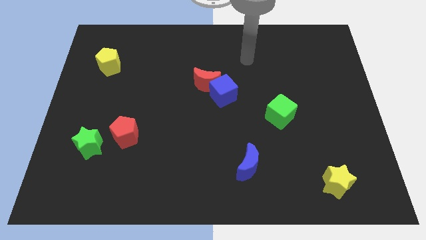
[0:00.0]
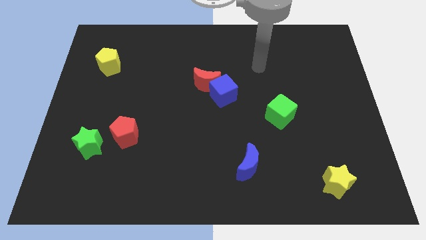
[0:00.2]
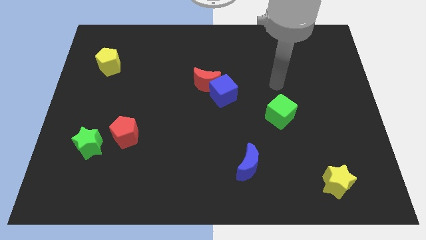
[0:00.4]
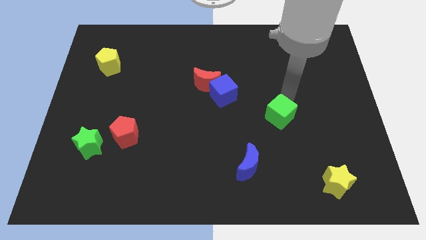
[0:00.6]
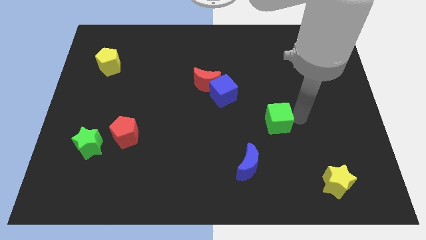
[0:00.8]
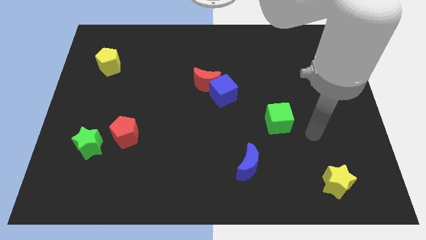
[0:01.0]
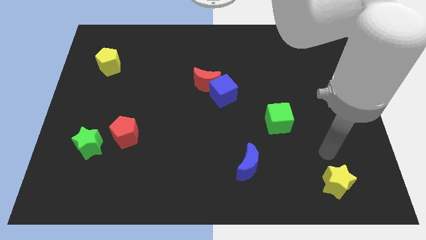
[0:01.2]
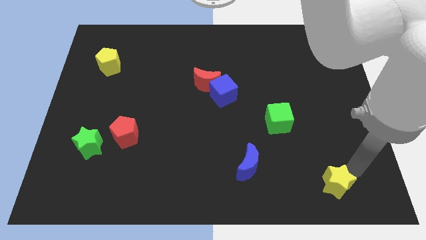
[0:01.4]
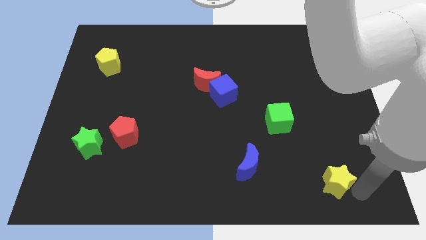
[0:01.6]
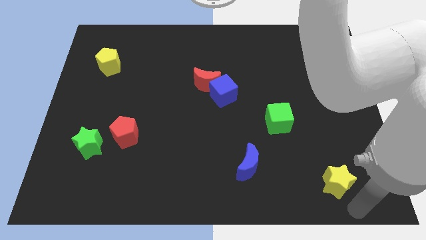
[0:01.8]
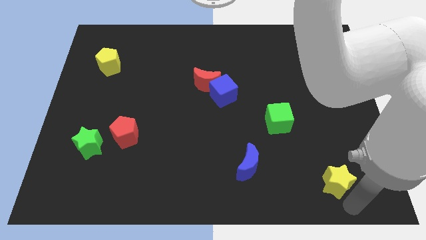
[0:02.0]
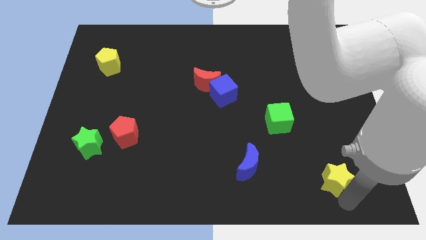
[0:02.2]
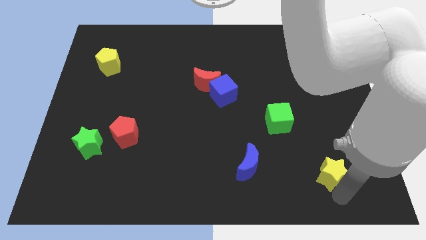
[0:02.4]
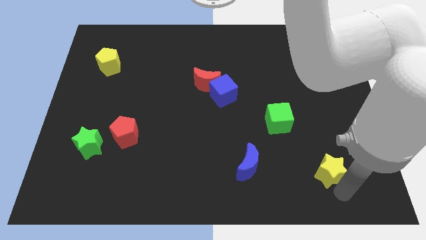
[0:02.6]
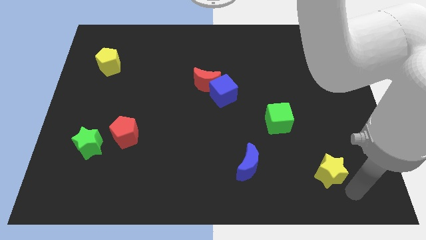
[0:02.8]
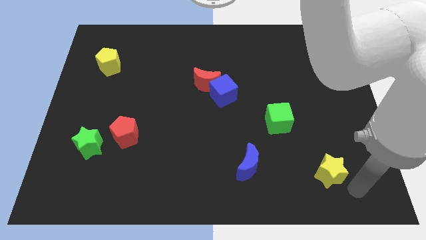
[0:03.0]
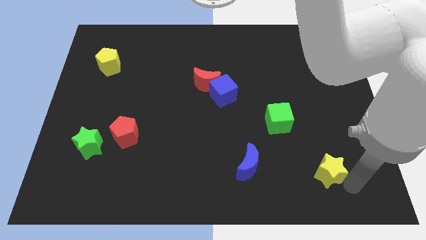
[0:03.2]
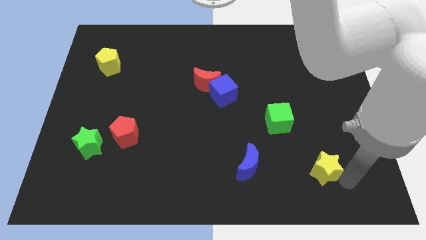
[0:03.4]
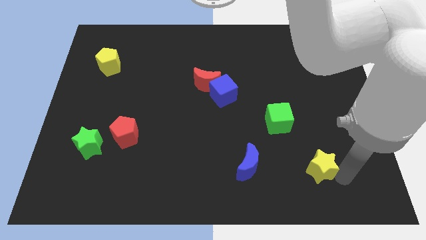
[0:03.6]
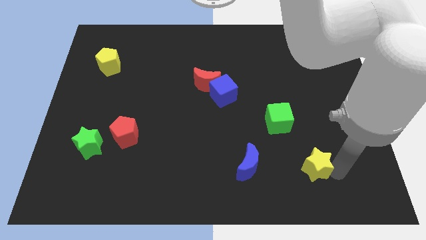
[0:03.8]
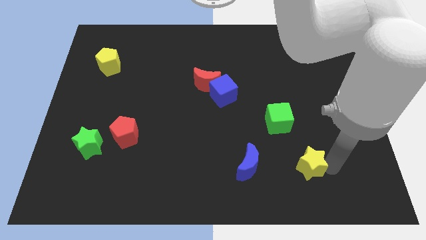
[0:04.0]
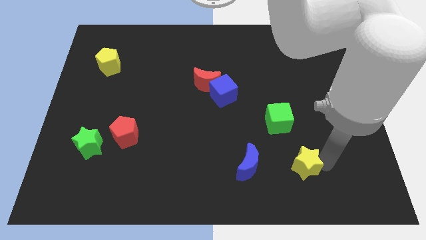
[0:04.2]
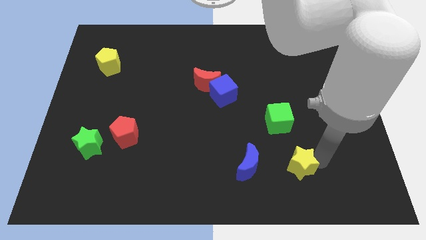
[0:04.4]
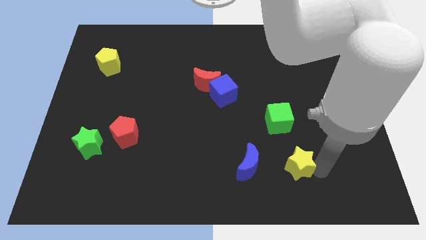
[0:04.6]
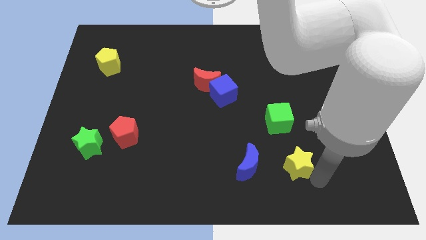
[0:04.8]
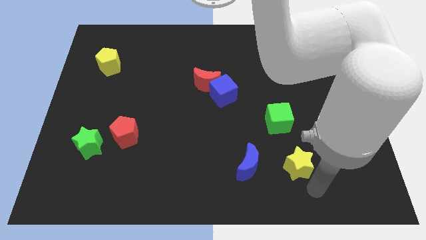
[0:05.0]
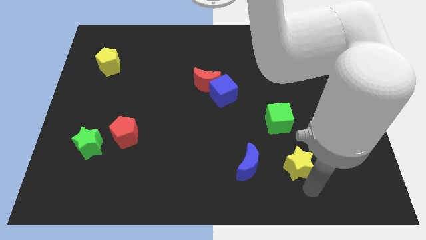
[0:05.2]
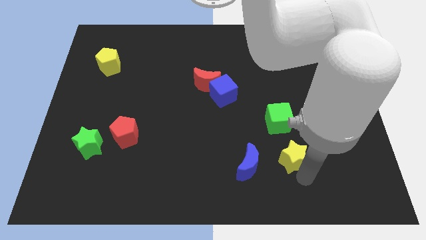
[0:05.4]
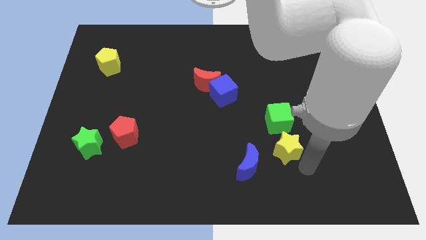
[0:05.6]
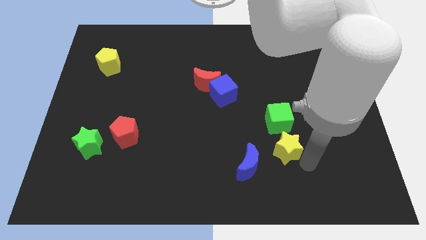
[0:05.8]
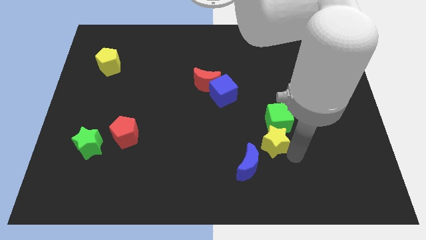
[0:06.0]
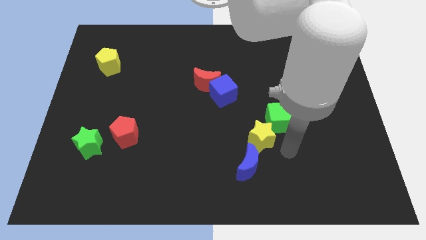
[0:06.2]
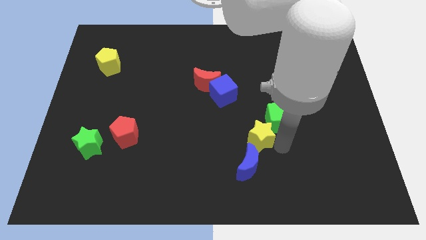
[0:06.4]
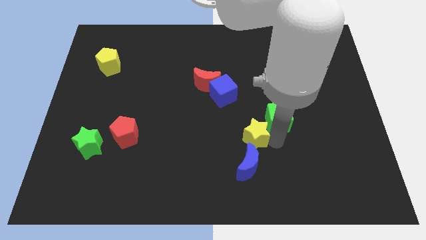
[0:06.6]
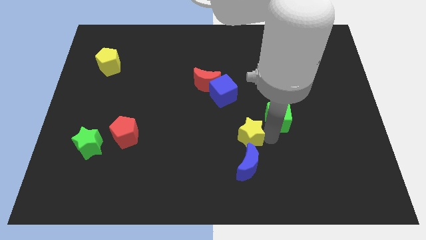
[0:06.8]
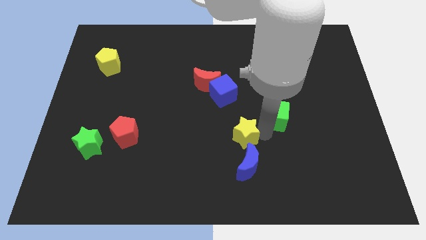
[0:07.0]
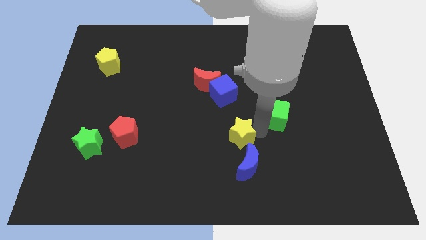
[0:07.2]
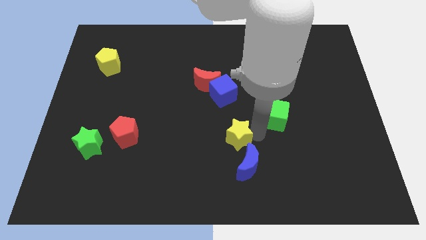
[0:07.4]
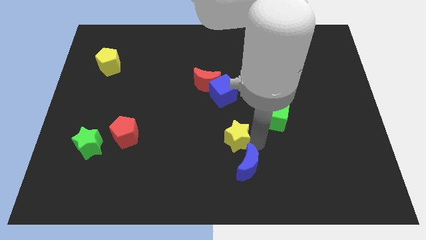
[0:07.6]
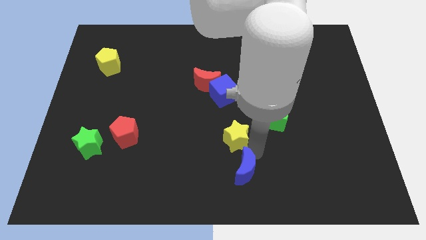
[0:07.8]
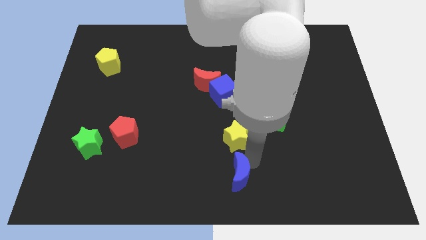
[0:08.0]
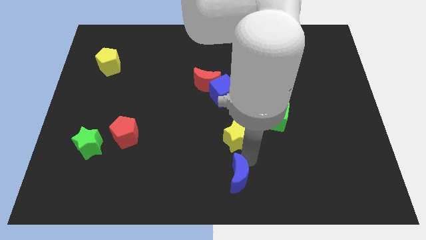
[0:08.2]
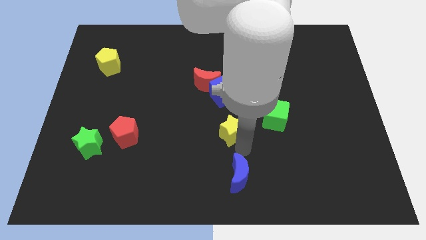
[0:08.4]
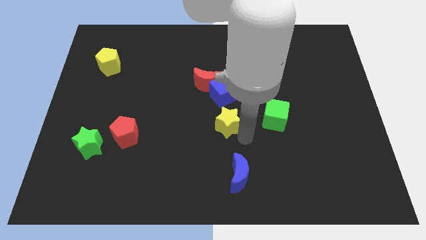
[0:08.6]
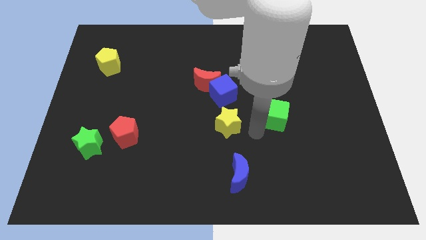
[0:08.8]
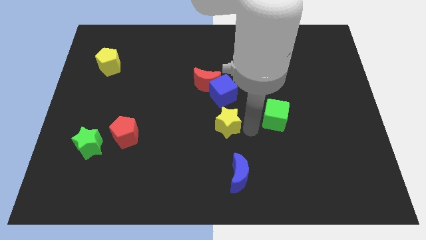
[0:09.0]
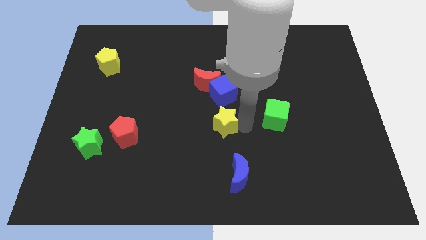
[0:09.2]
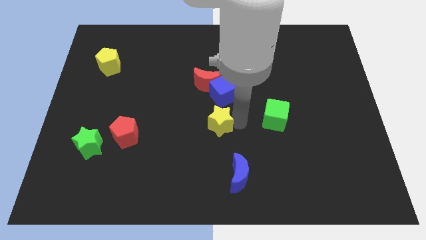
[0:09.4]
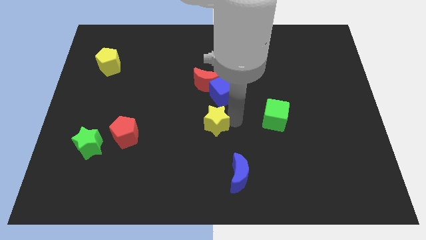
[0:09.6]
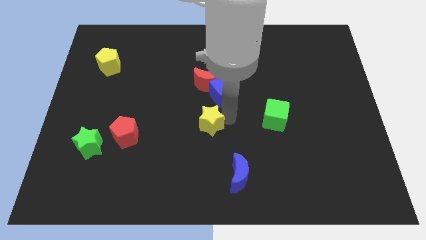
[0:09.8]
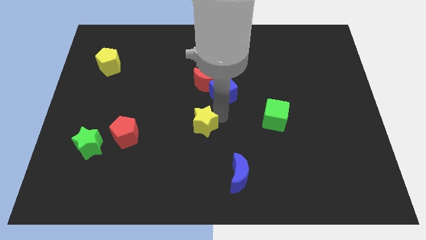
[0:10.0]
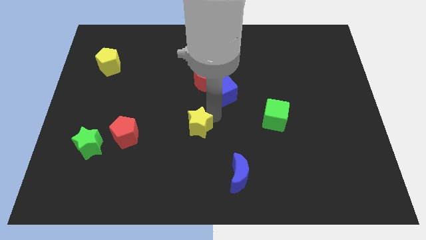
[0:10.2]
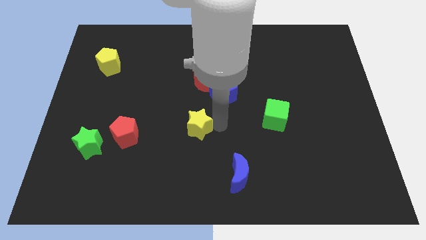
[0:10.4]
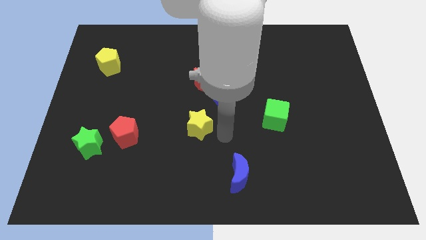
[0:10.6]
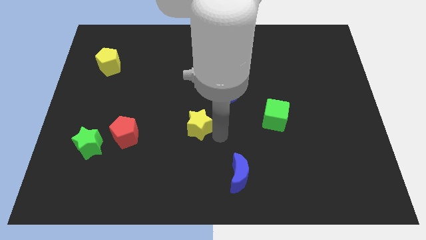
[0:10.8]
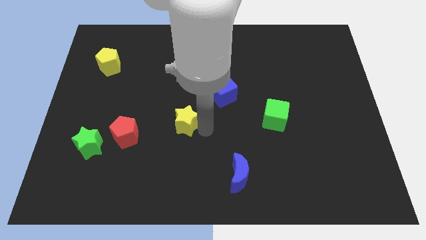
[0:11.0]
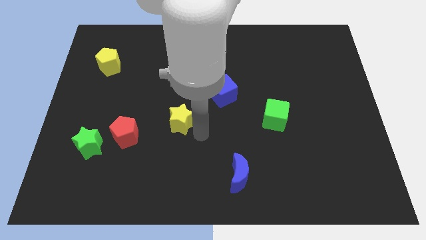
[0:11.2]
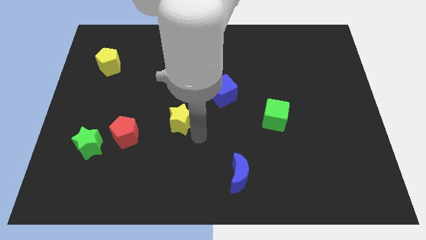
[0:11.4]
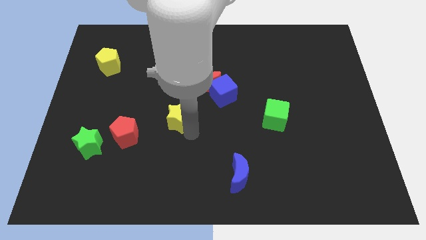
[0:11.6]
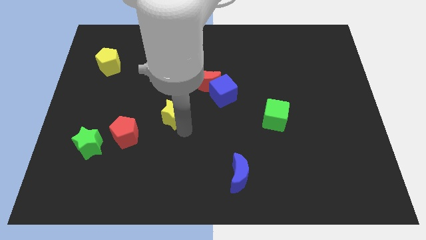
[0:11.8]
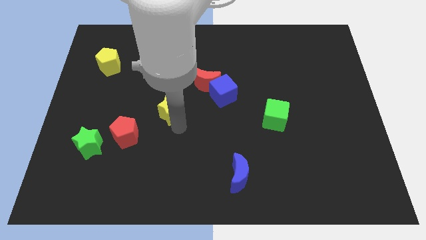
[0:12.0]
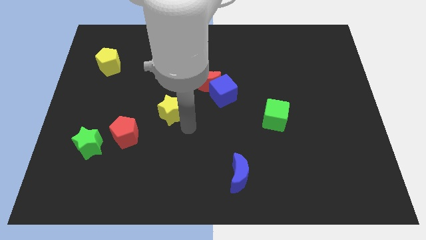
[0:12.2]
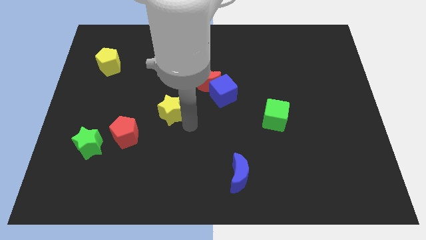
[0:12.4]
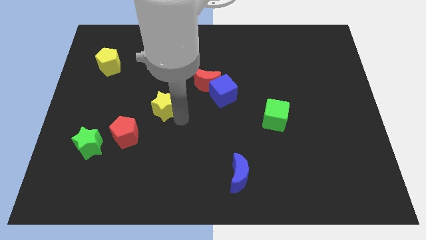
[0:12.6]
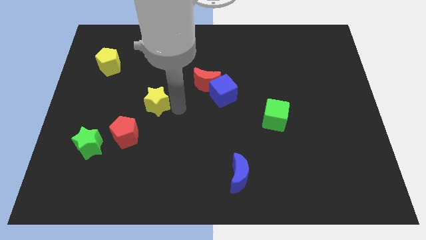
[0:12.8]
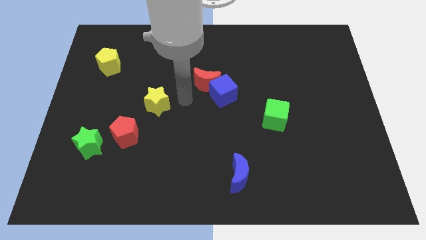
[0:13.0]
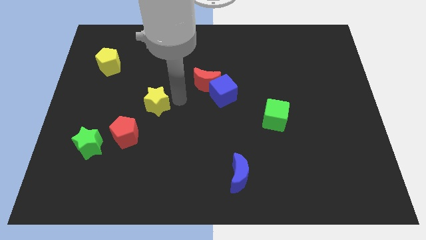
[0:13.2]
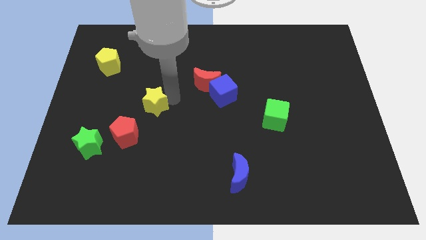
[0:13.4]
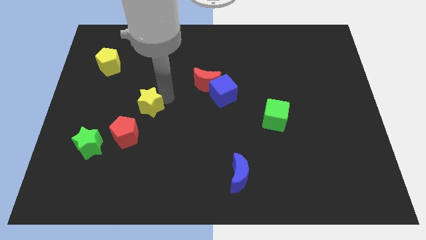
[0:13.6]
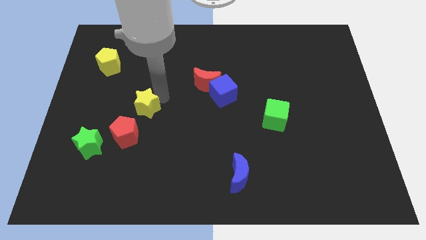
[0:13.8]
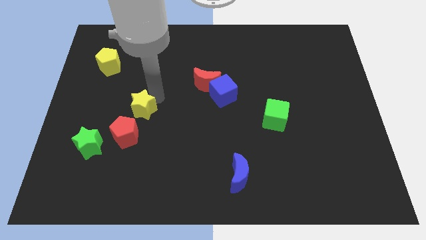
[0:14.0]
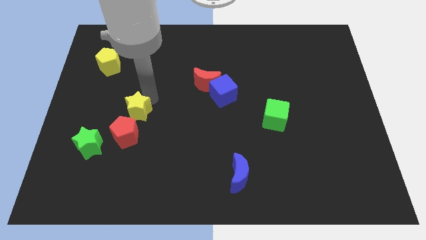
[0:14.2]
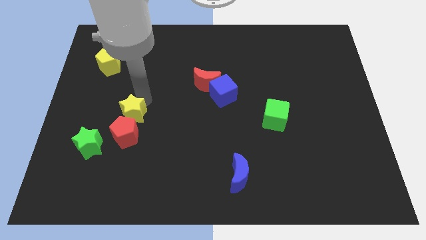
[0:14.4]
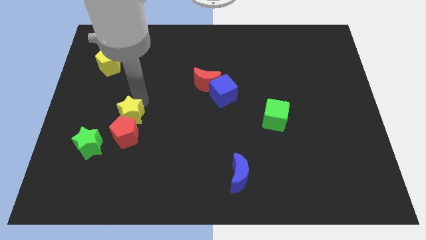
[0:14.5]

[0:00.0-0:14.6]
put the yellow star diagonally up and to the left of the red pentagon
